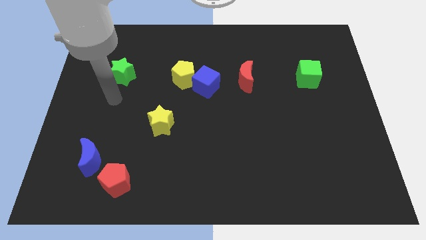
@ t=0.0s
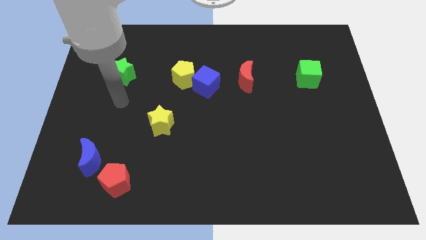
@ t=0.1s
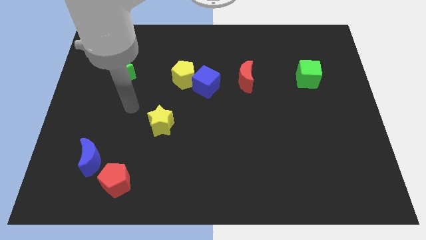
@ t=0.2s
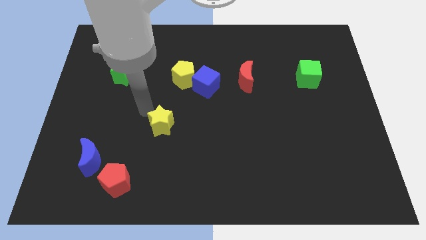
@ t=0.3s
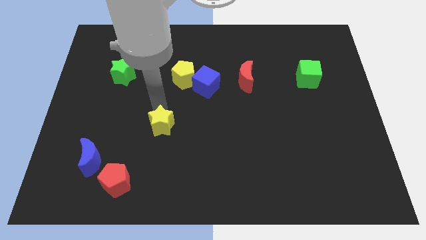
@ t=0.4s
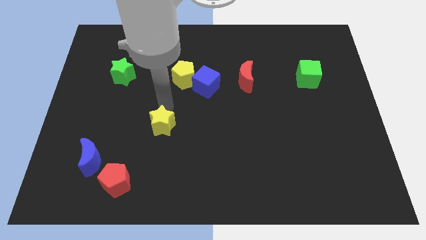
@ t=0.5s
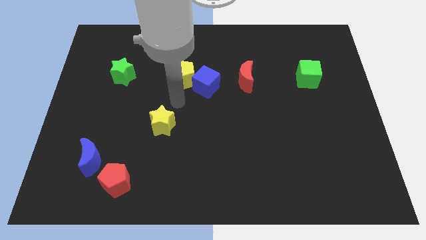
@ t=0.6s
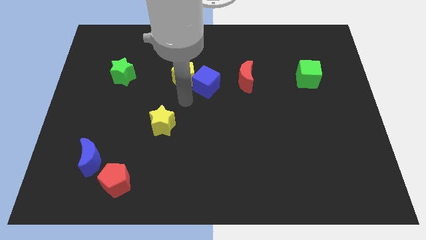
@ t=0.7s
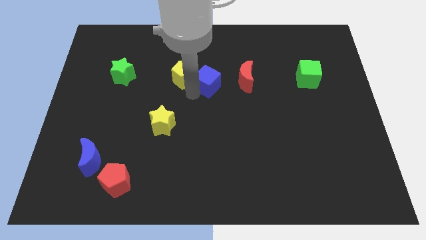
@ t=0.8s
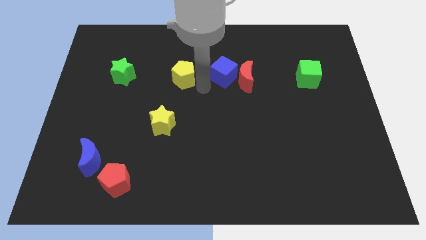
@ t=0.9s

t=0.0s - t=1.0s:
move the yellow pentagon away from the blue cube

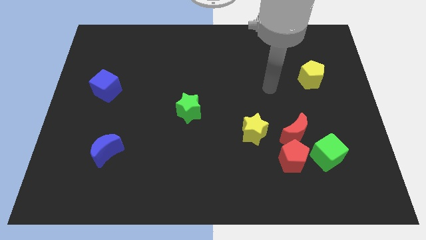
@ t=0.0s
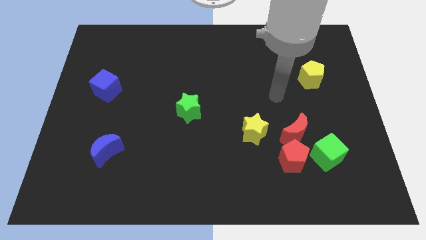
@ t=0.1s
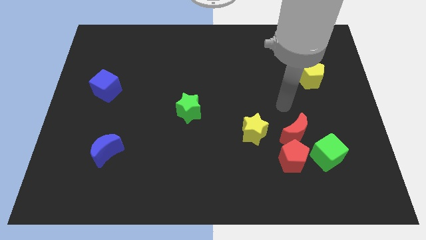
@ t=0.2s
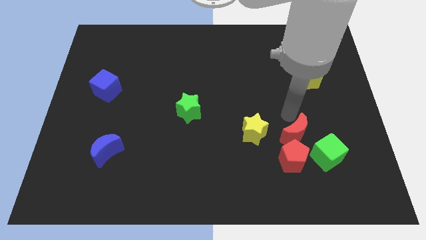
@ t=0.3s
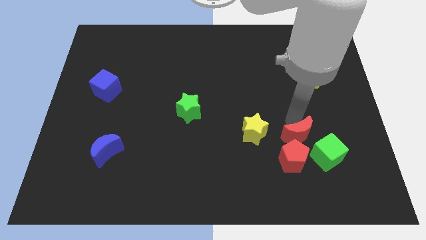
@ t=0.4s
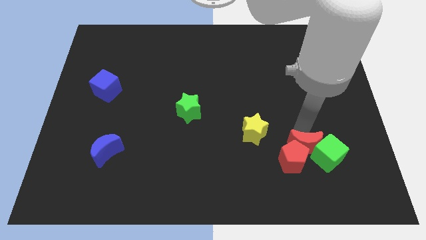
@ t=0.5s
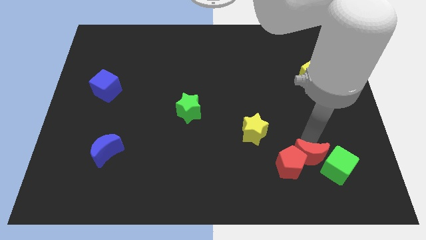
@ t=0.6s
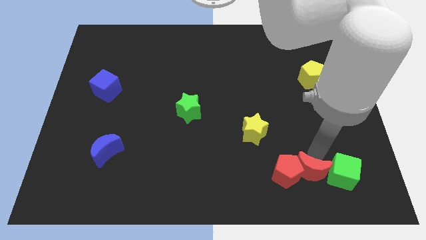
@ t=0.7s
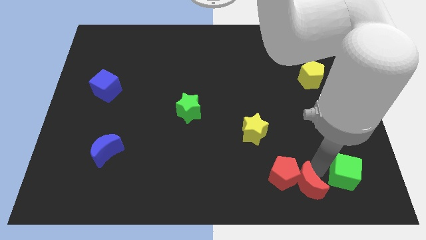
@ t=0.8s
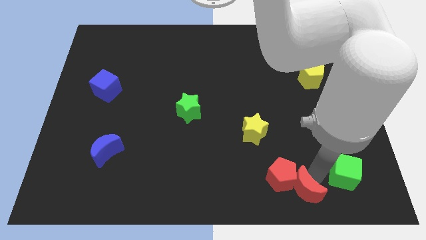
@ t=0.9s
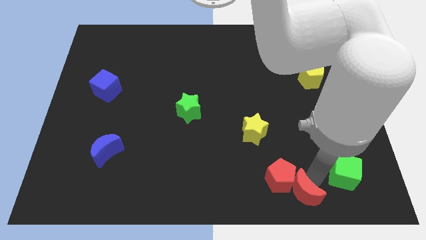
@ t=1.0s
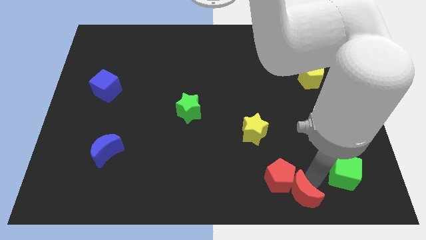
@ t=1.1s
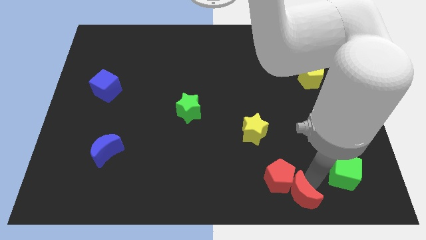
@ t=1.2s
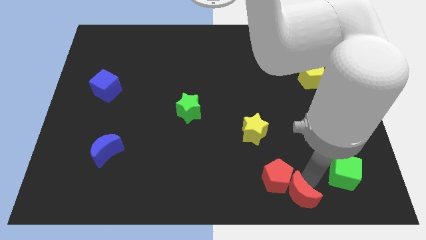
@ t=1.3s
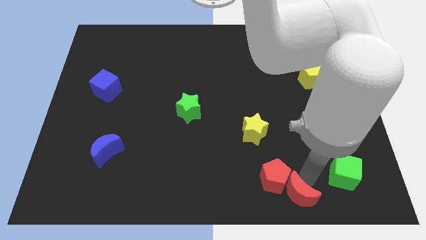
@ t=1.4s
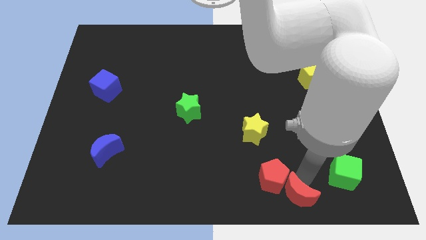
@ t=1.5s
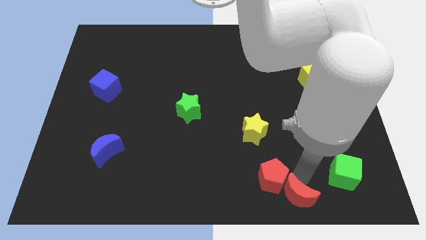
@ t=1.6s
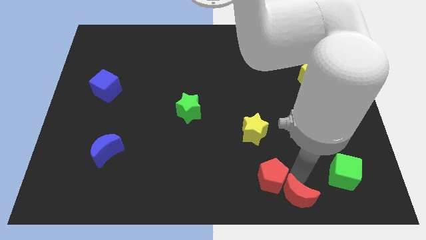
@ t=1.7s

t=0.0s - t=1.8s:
pull the red pentagon apart from the red moon and green cube

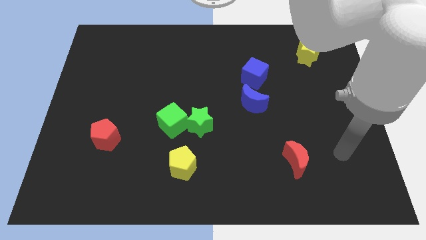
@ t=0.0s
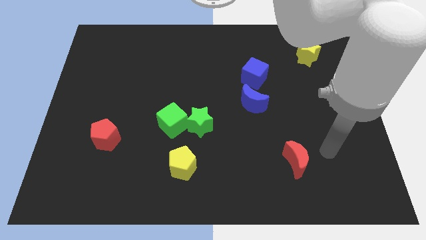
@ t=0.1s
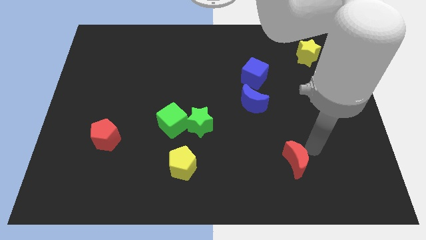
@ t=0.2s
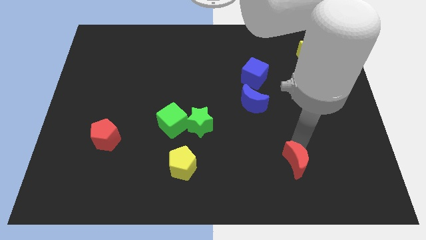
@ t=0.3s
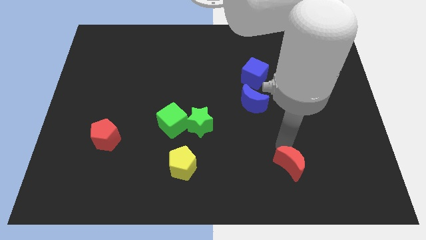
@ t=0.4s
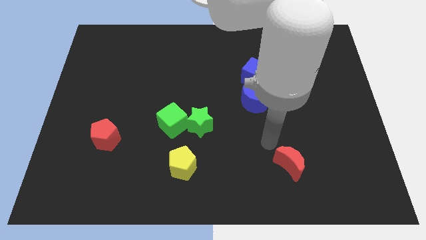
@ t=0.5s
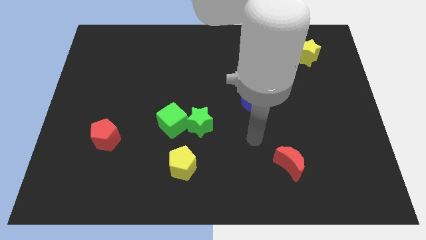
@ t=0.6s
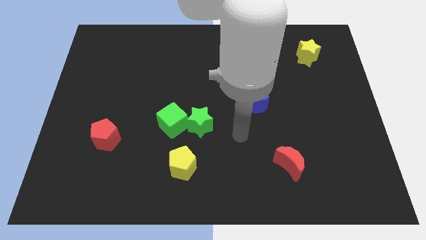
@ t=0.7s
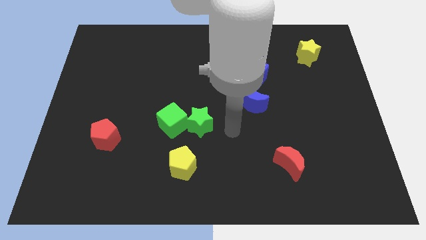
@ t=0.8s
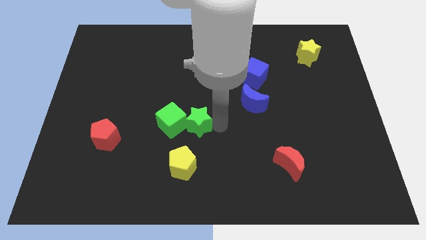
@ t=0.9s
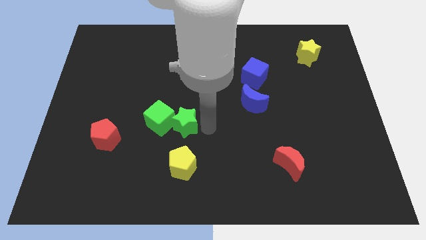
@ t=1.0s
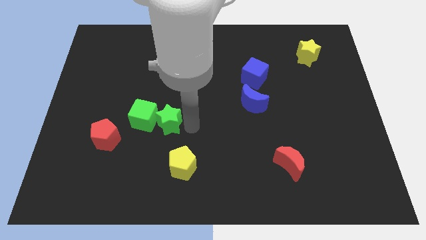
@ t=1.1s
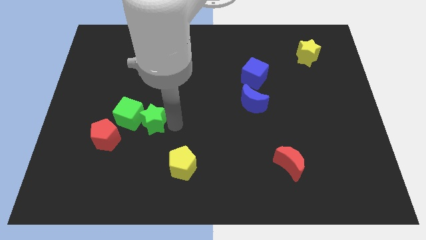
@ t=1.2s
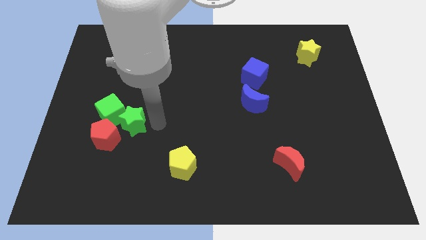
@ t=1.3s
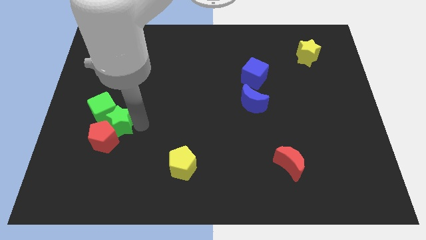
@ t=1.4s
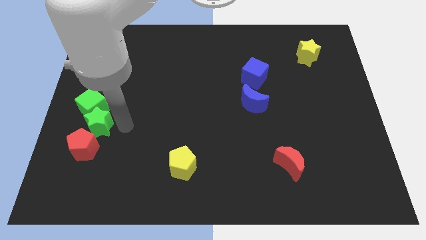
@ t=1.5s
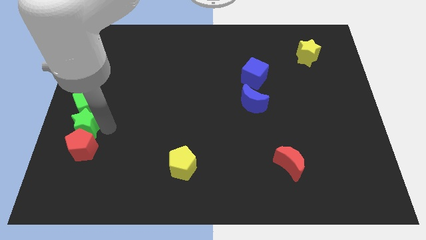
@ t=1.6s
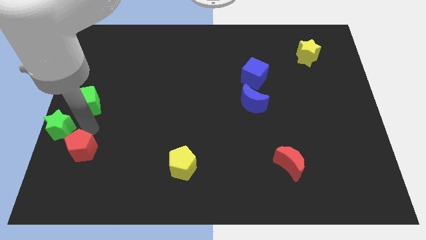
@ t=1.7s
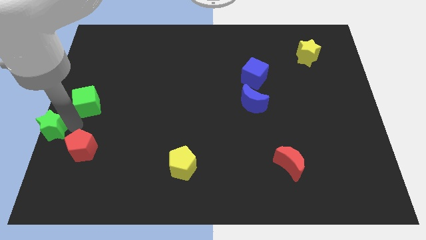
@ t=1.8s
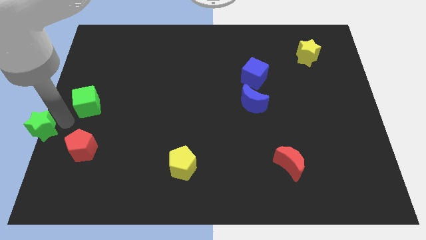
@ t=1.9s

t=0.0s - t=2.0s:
pull the green cube apart from the green star

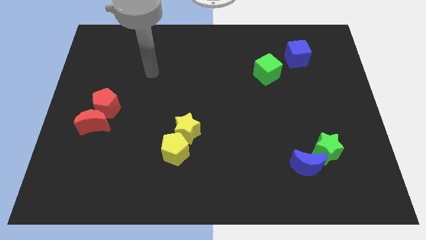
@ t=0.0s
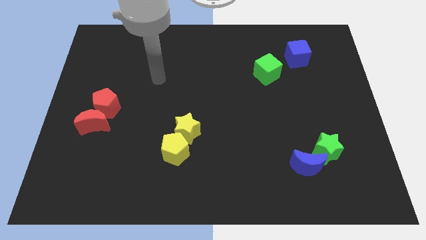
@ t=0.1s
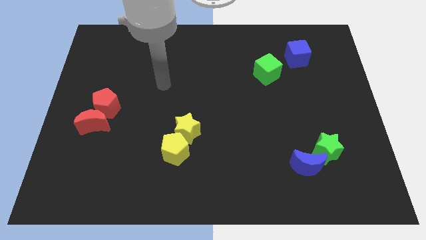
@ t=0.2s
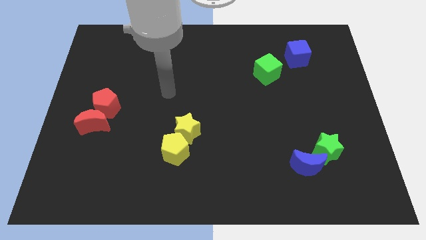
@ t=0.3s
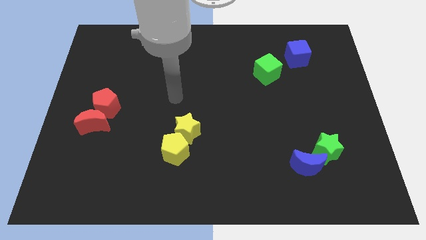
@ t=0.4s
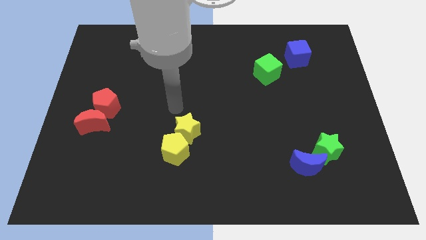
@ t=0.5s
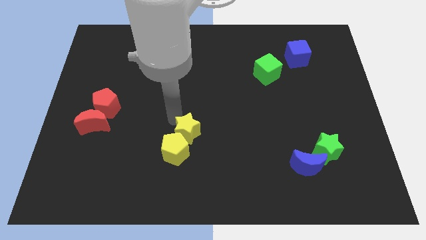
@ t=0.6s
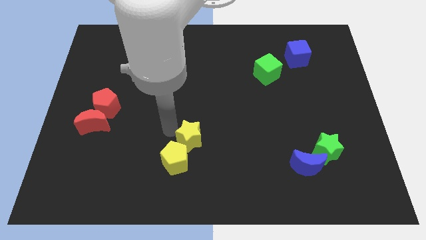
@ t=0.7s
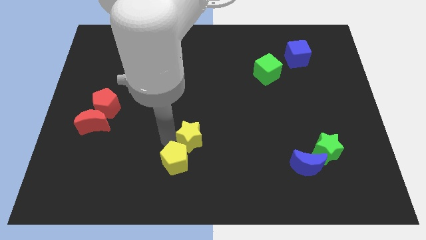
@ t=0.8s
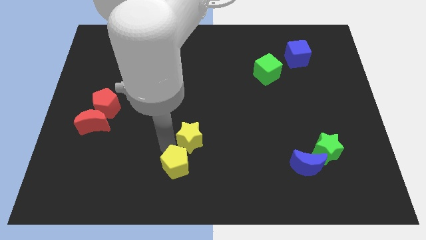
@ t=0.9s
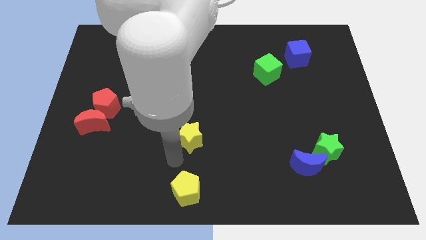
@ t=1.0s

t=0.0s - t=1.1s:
pull the yellow star apart from the yellow pentagon

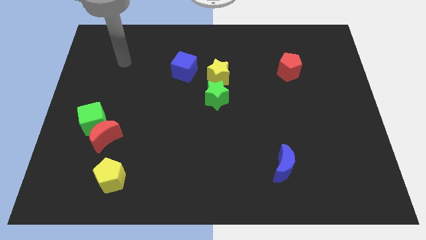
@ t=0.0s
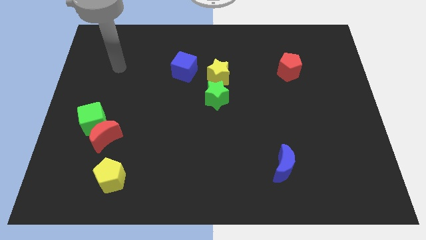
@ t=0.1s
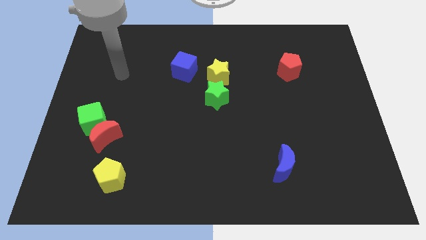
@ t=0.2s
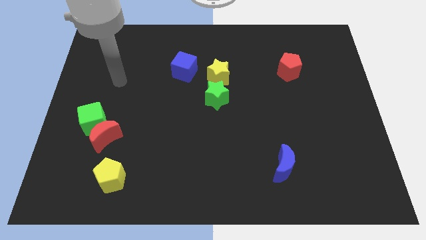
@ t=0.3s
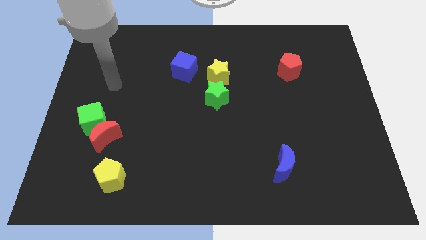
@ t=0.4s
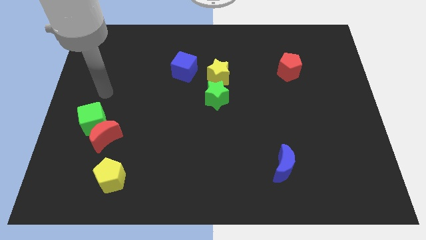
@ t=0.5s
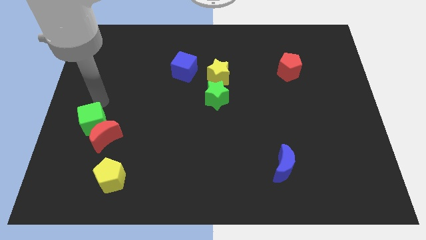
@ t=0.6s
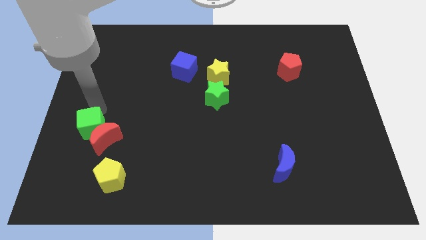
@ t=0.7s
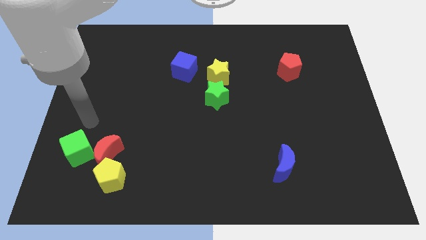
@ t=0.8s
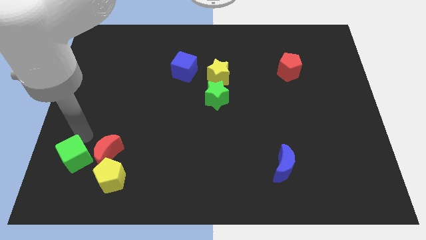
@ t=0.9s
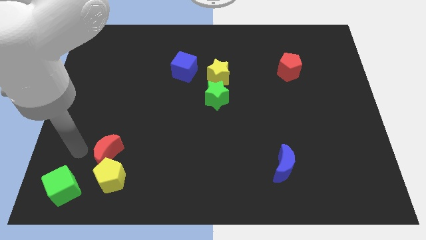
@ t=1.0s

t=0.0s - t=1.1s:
separate the red moon from the green cube

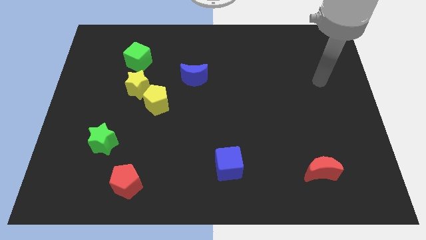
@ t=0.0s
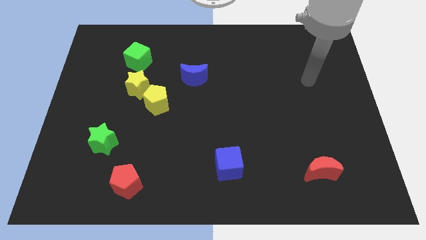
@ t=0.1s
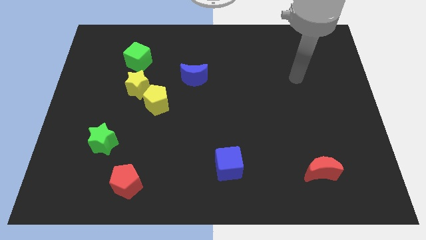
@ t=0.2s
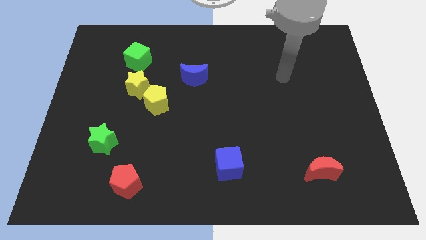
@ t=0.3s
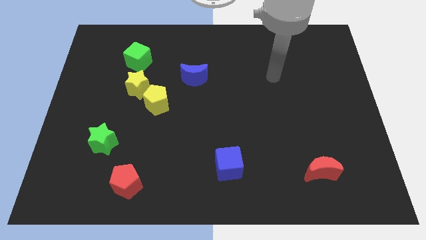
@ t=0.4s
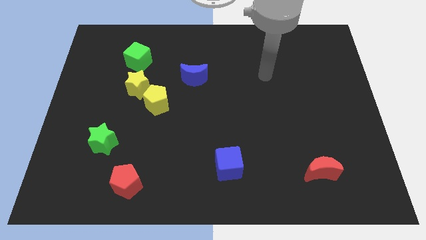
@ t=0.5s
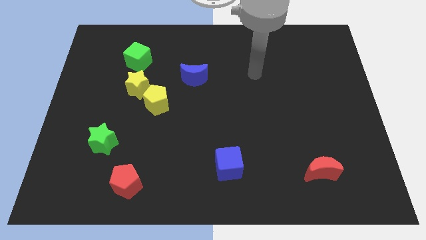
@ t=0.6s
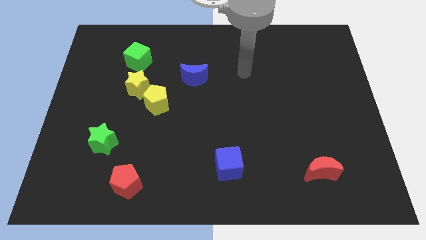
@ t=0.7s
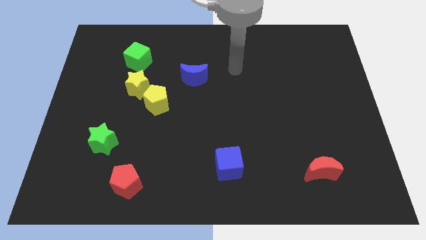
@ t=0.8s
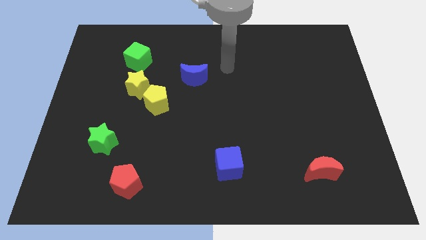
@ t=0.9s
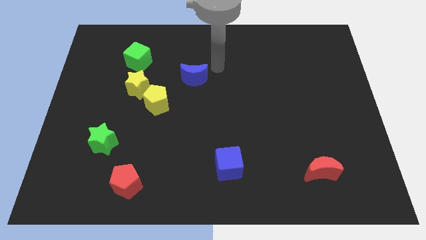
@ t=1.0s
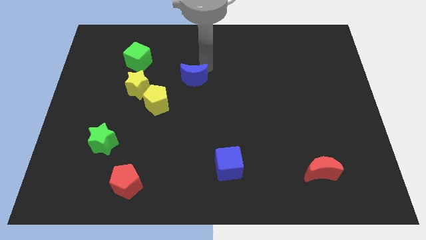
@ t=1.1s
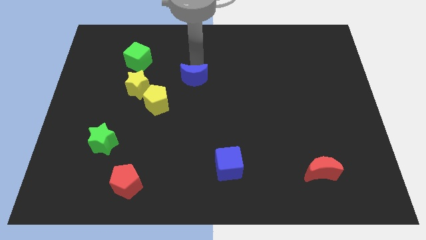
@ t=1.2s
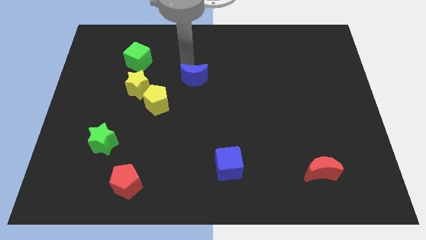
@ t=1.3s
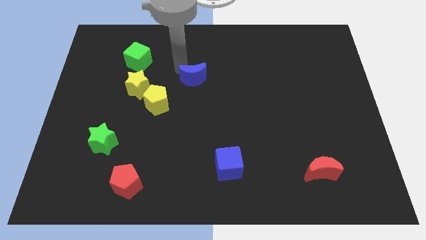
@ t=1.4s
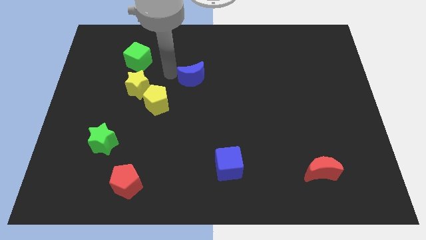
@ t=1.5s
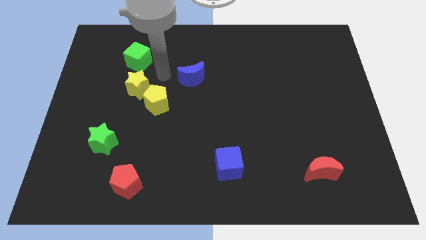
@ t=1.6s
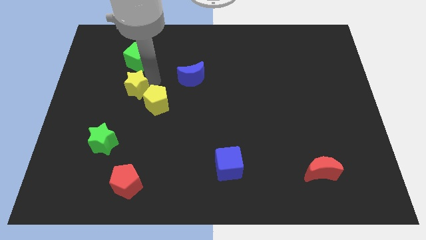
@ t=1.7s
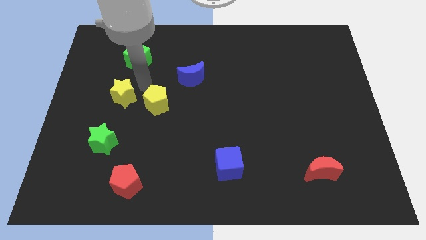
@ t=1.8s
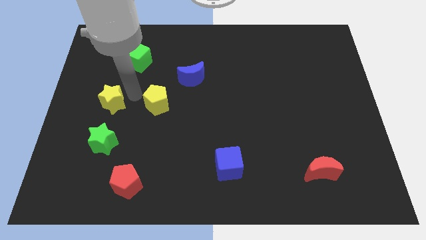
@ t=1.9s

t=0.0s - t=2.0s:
pull the yellow pentagon apart from the yellow star

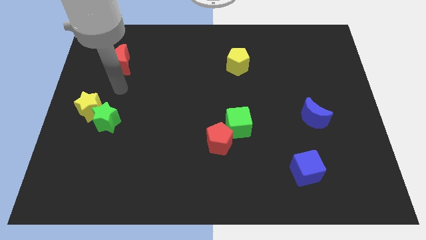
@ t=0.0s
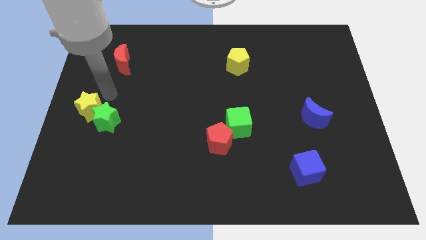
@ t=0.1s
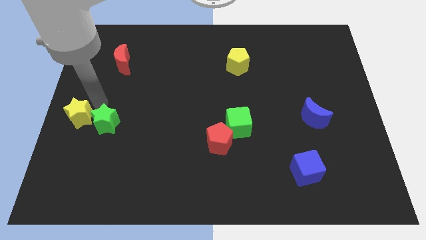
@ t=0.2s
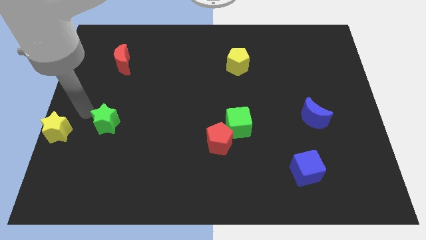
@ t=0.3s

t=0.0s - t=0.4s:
pull the green star apart from the yellow star
